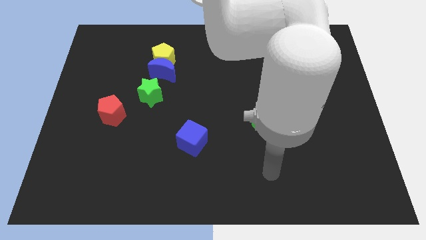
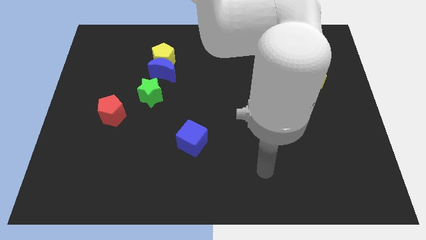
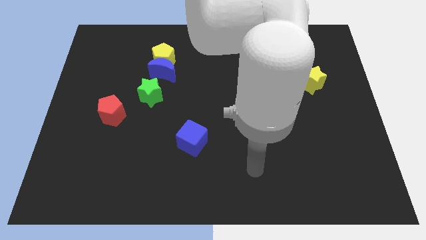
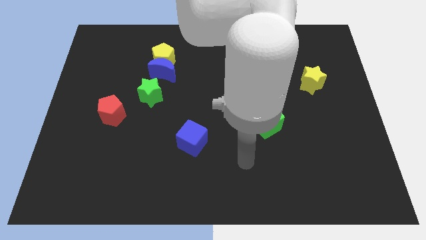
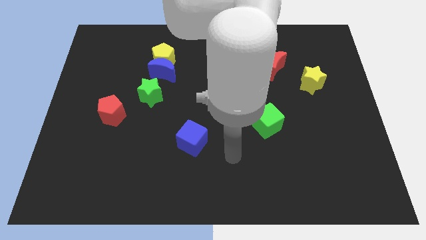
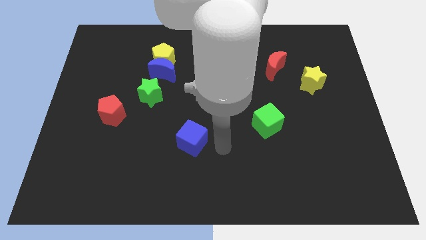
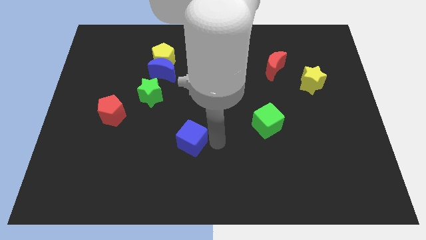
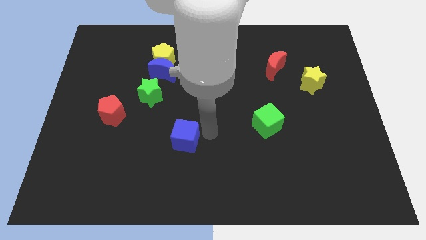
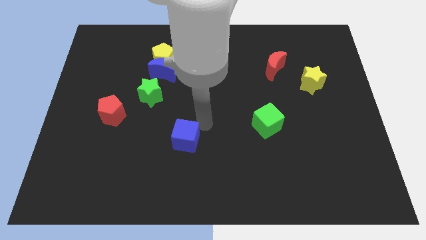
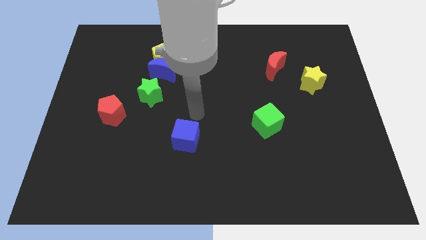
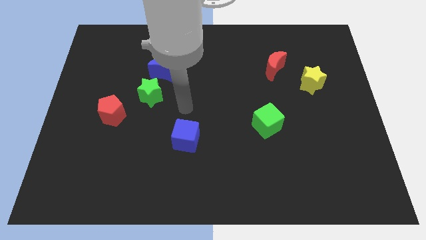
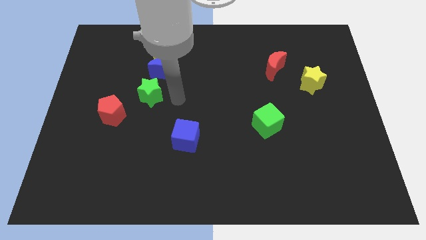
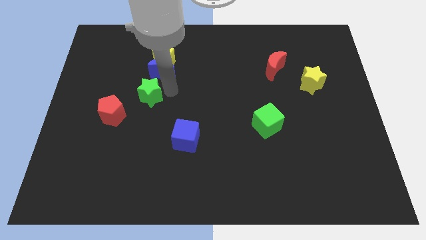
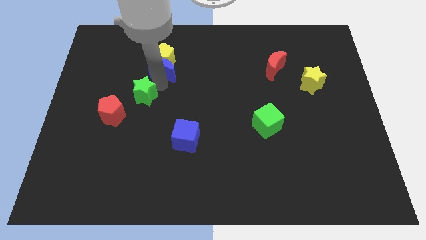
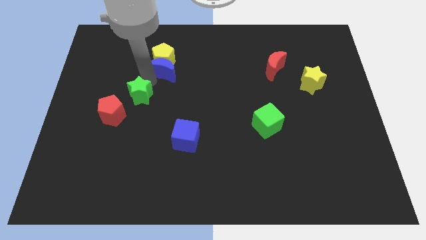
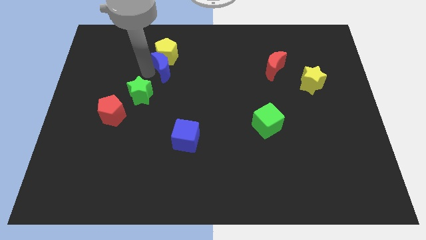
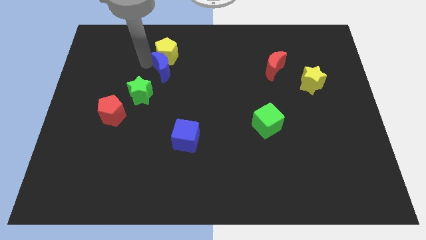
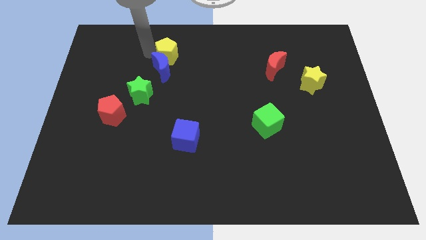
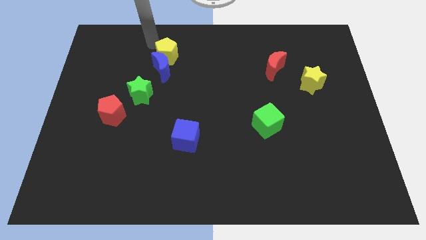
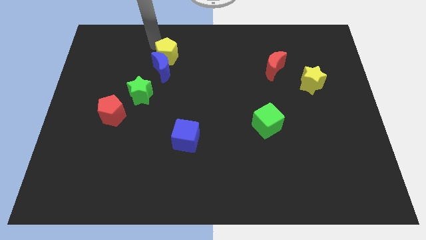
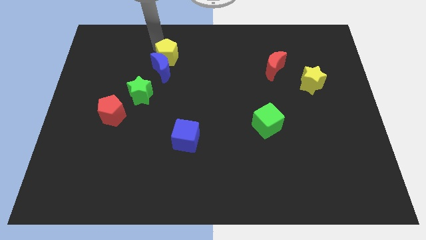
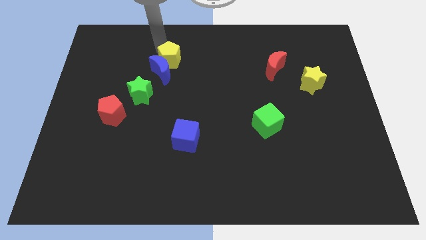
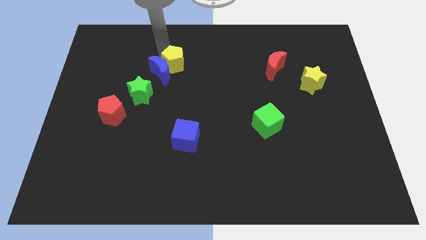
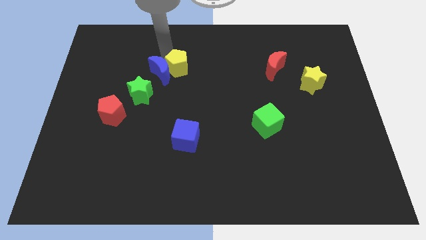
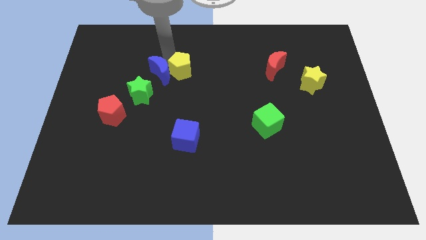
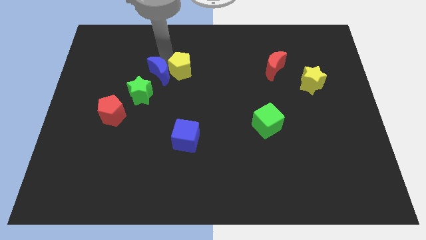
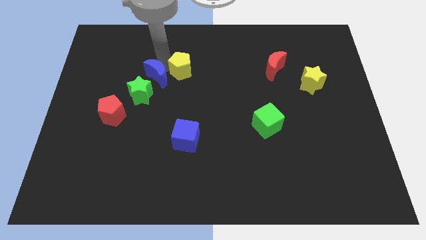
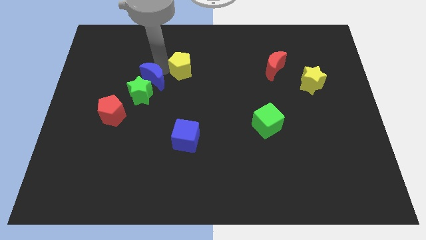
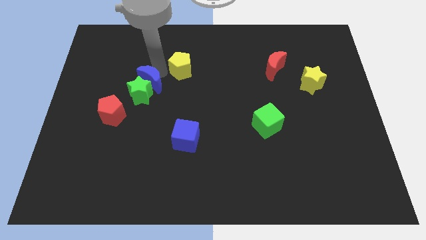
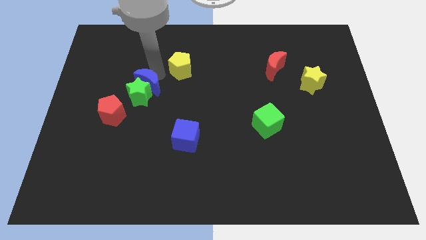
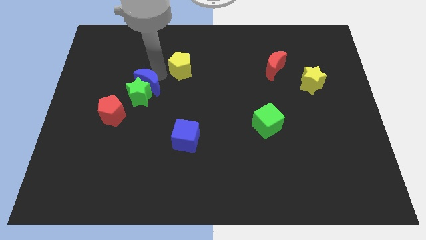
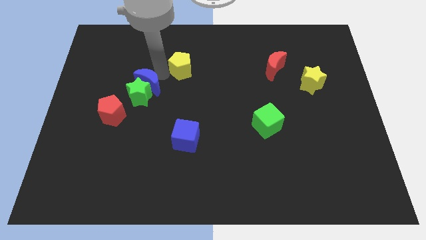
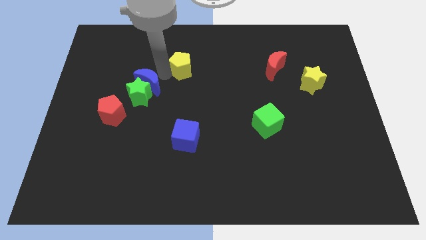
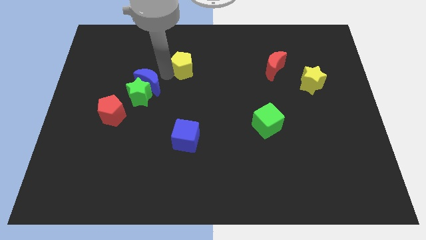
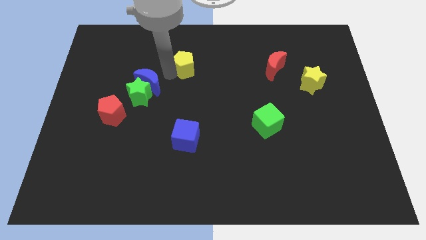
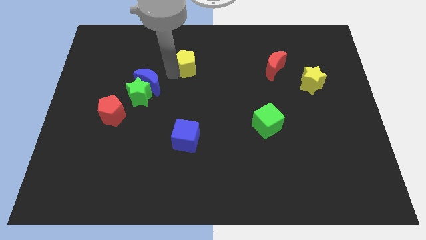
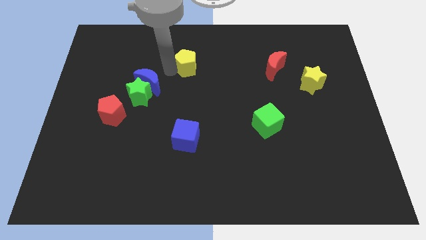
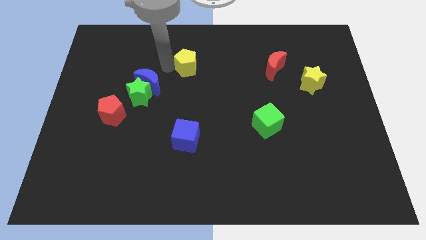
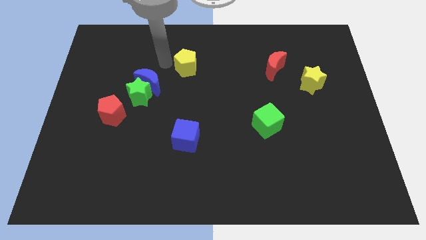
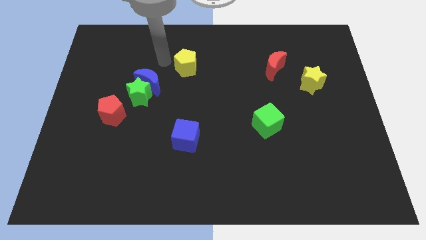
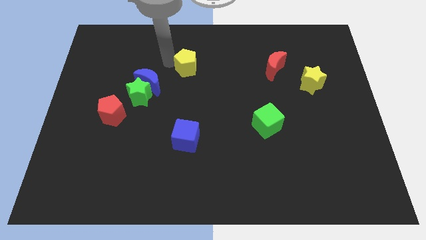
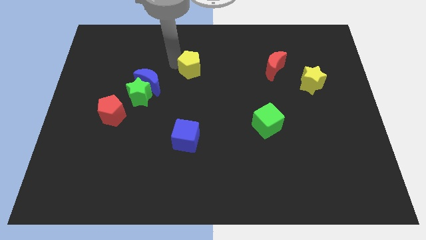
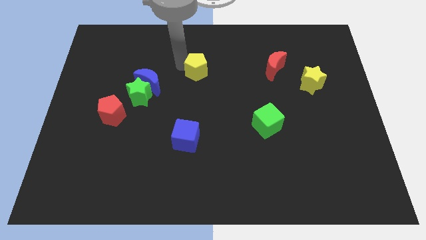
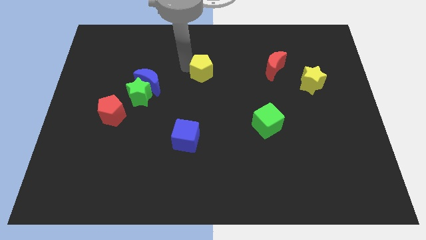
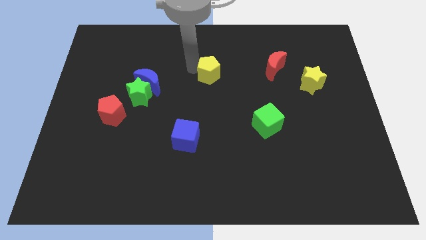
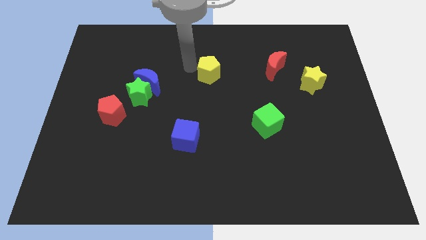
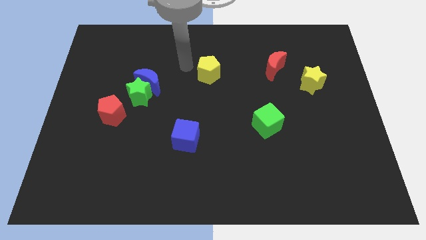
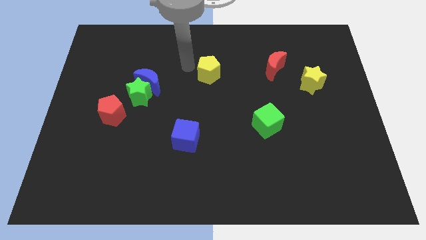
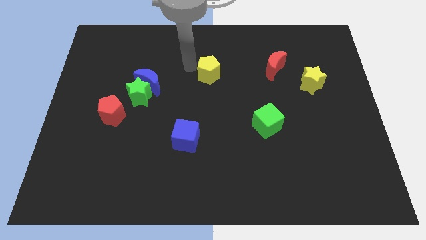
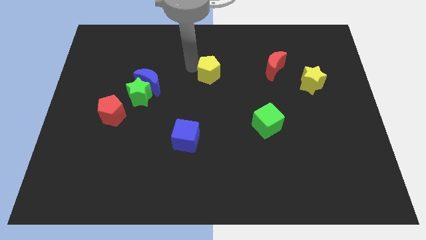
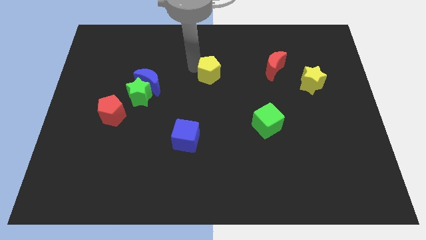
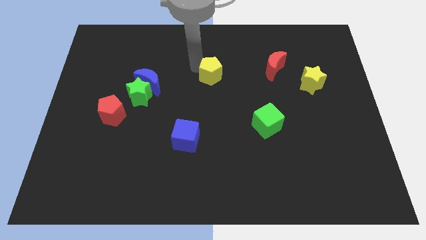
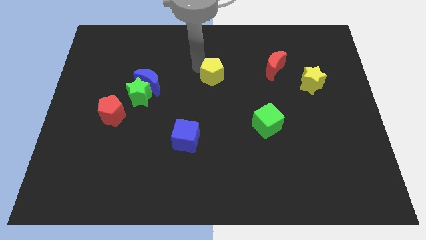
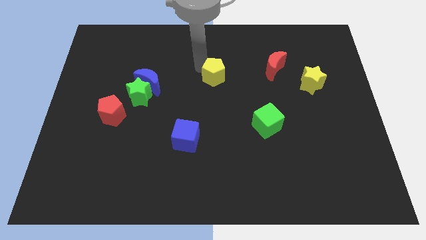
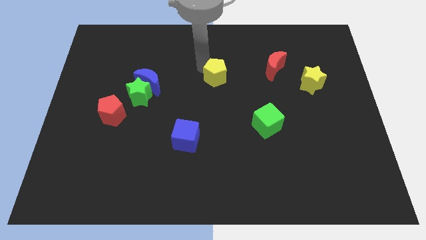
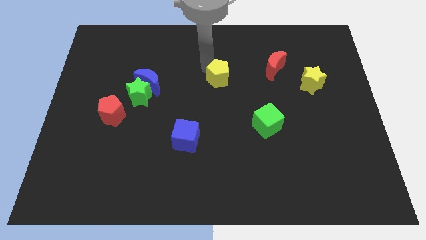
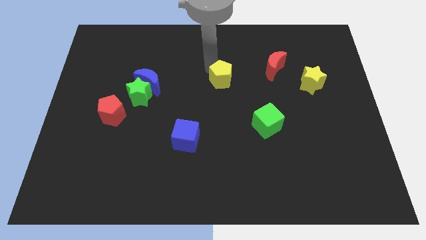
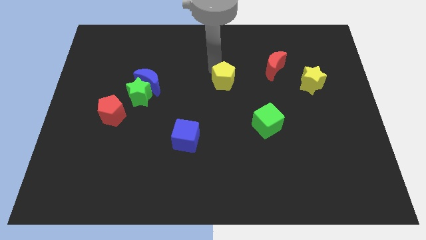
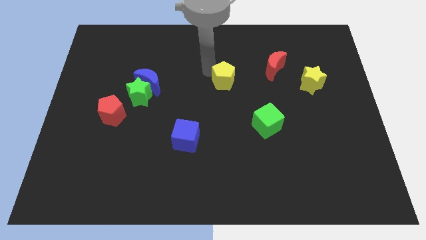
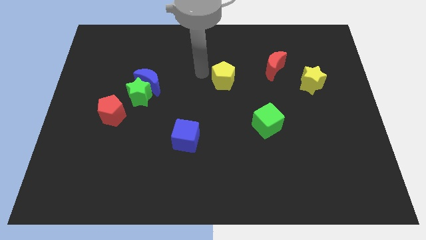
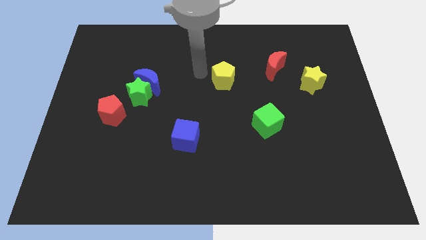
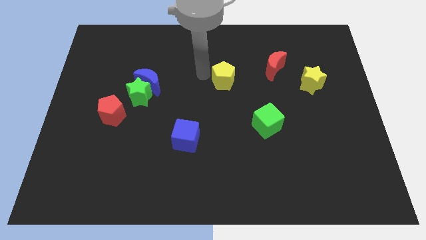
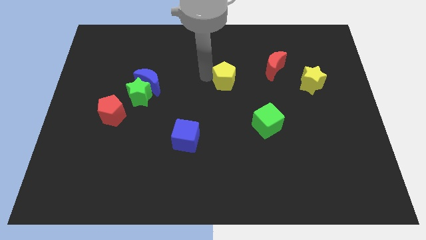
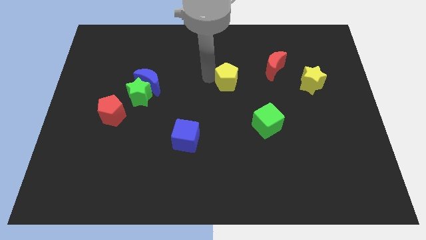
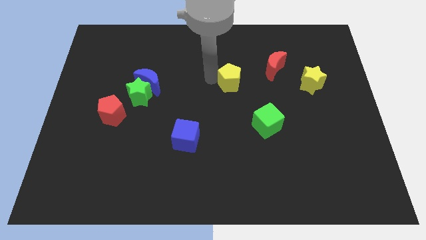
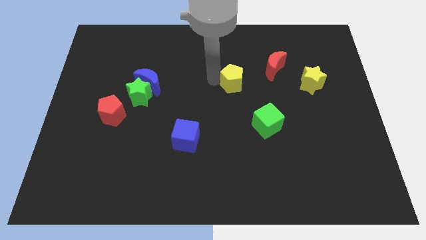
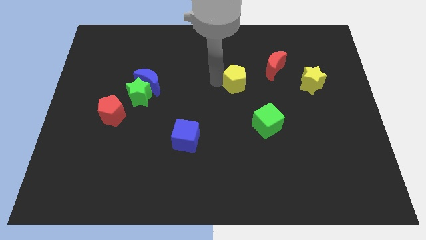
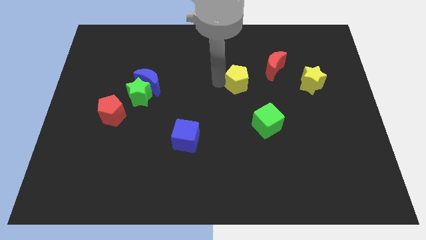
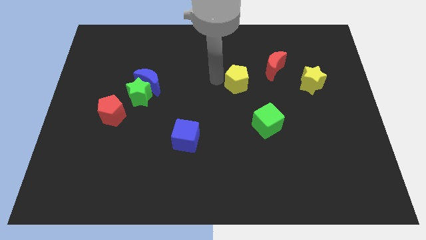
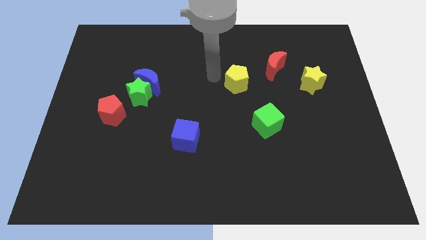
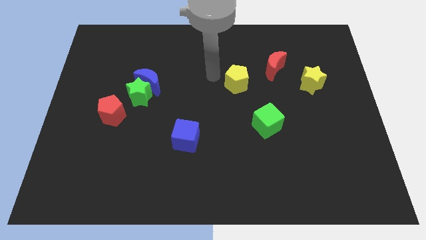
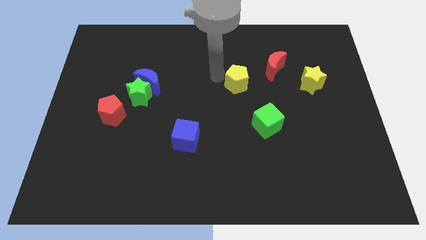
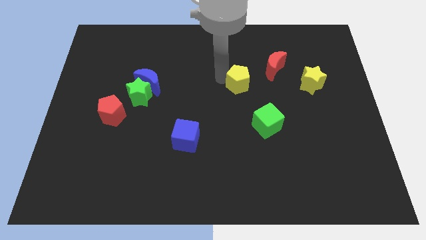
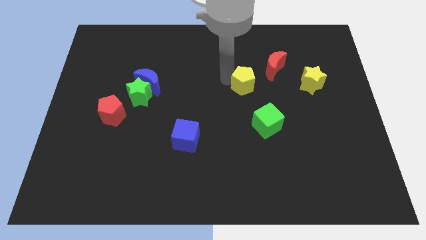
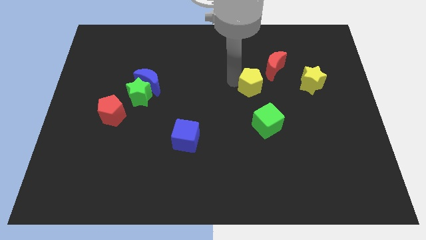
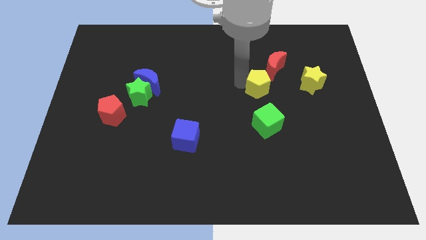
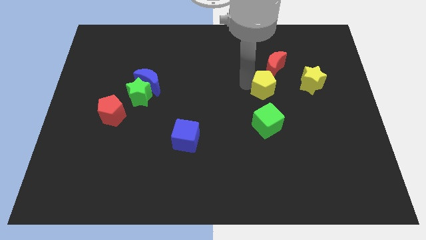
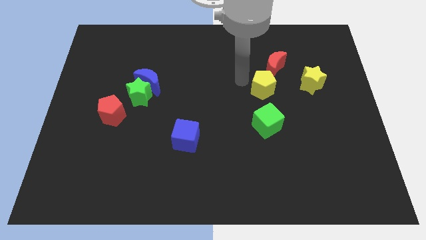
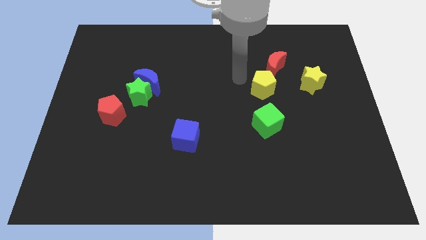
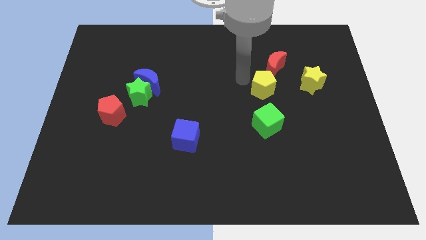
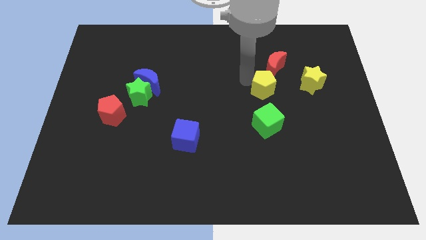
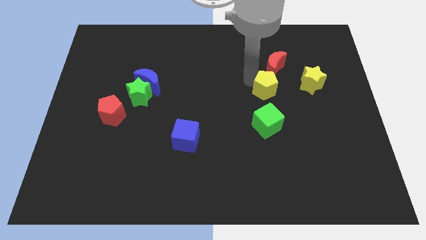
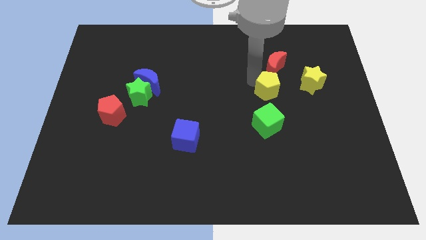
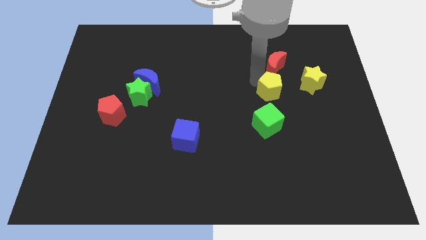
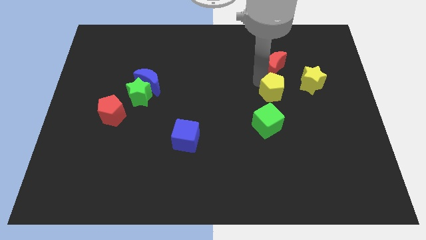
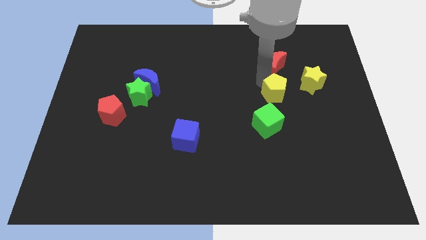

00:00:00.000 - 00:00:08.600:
move the yellow pentagon to the bottom left side of the yellow star
